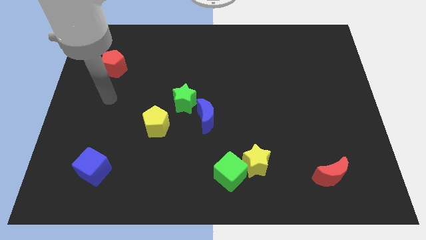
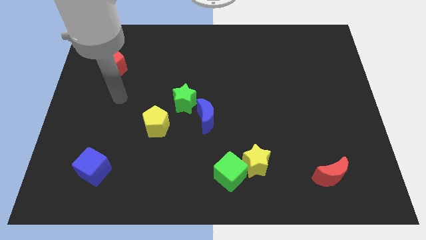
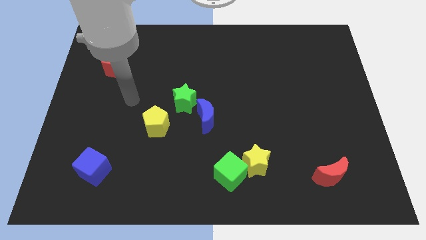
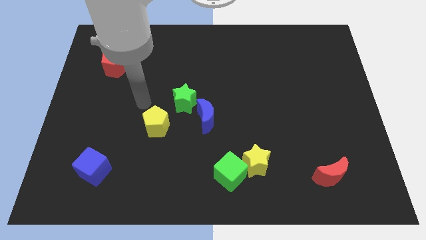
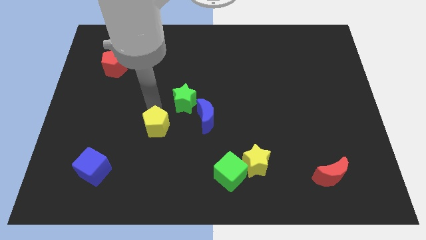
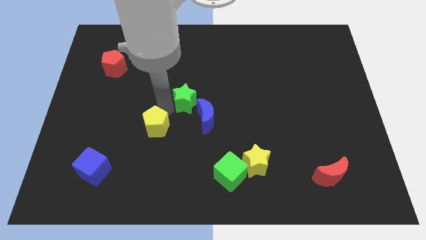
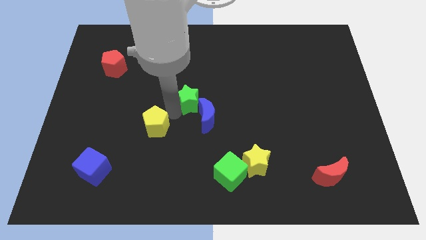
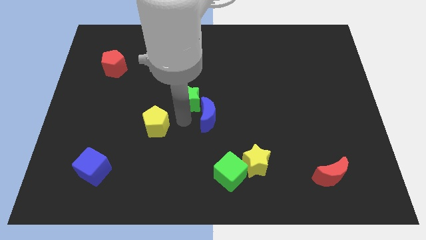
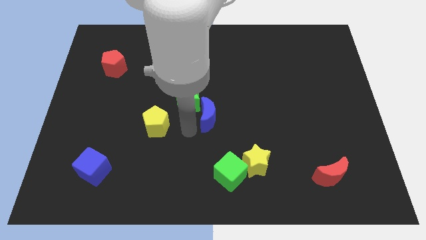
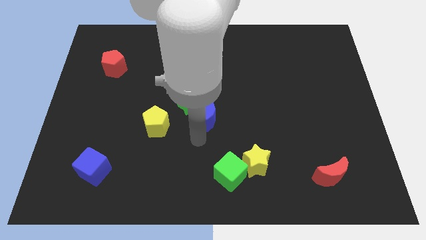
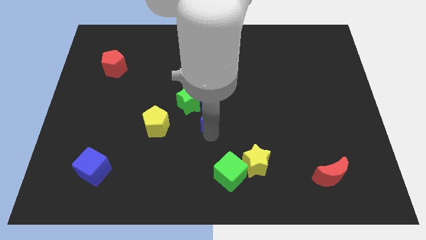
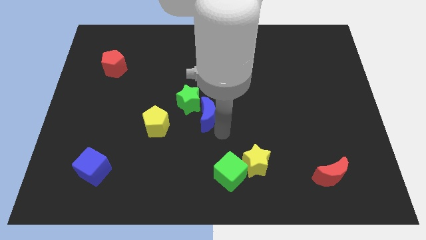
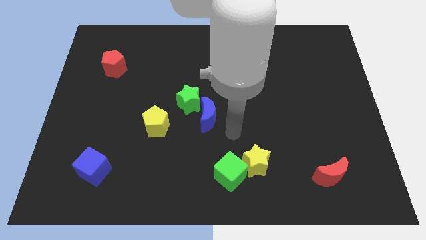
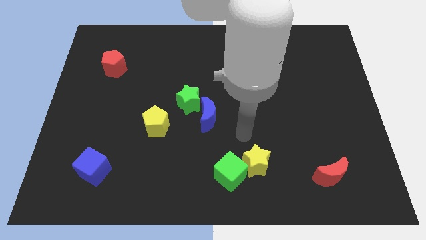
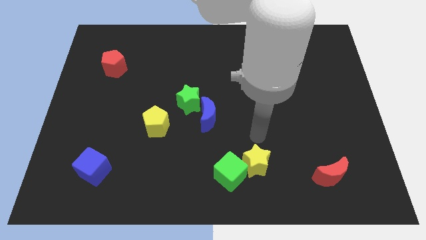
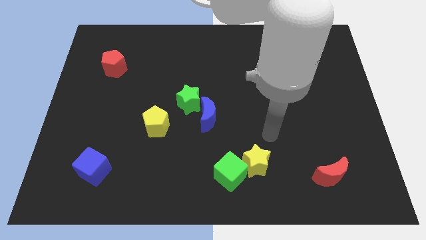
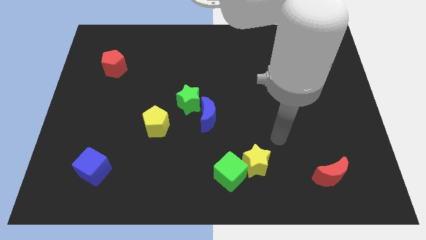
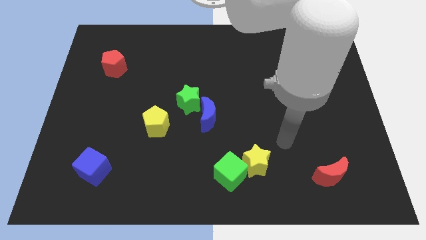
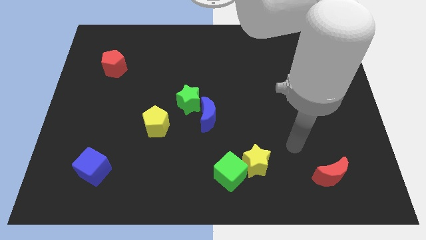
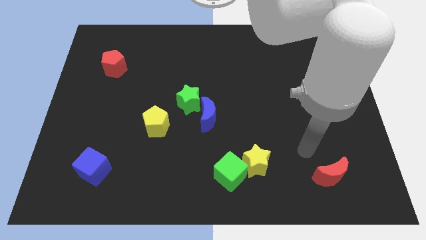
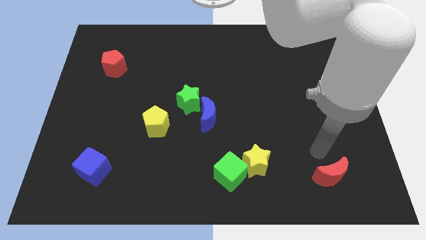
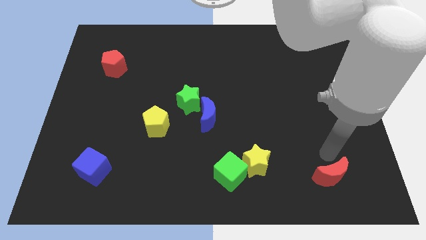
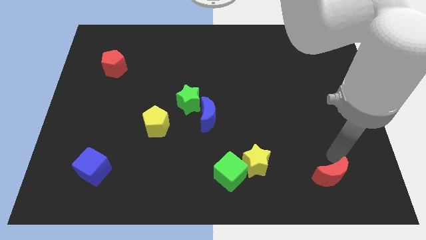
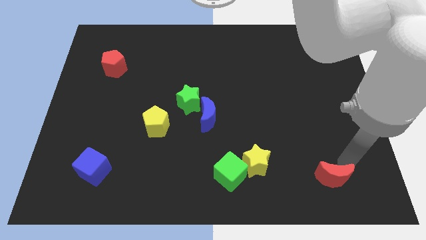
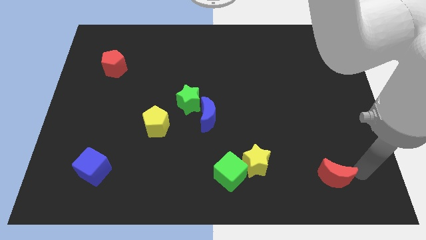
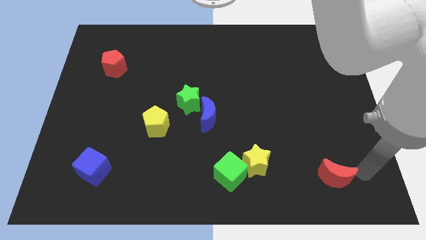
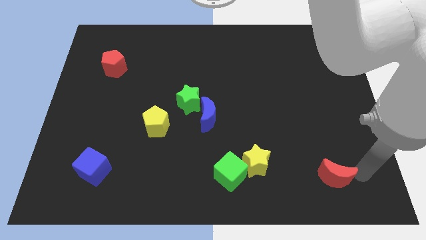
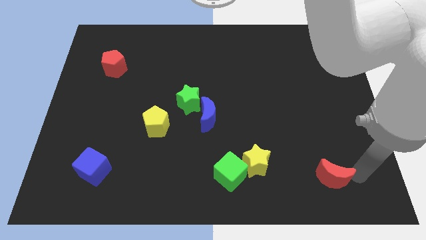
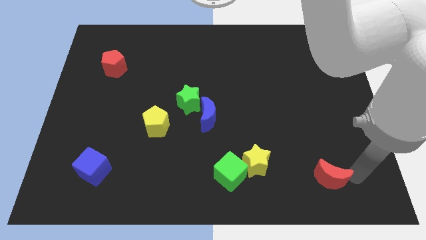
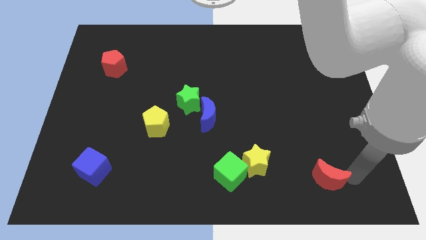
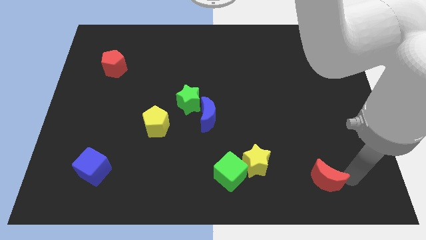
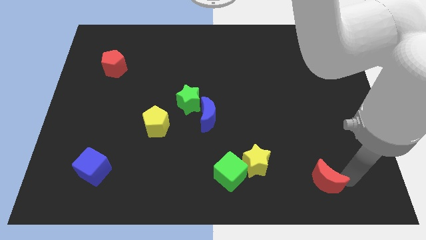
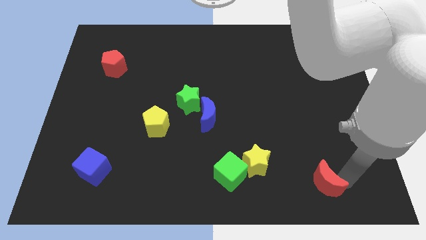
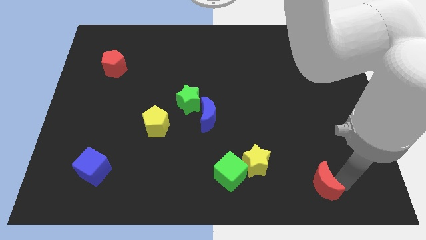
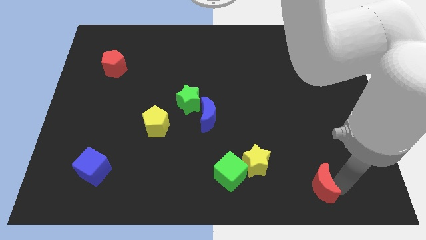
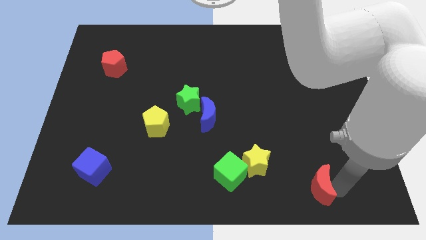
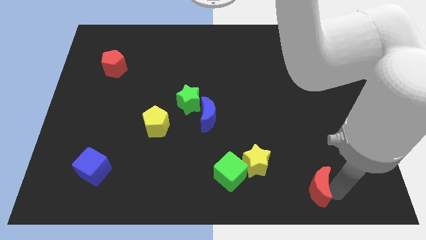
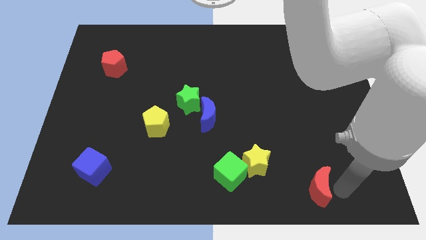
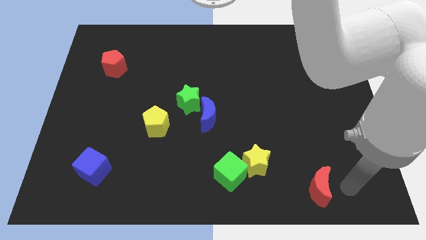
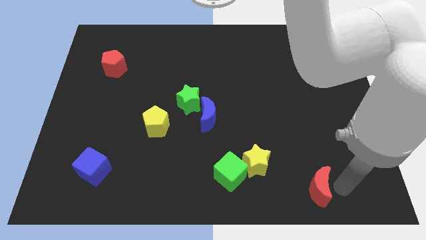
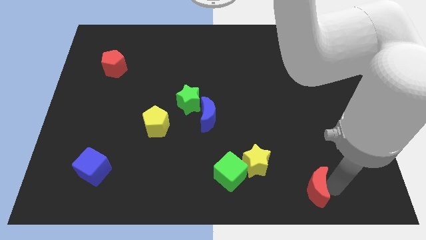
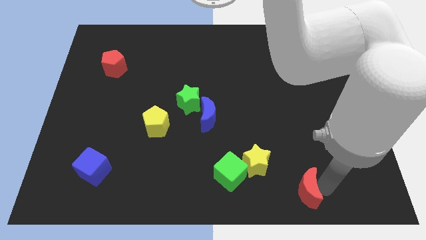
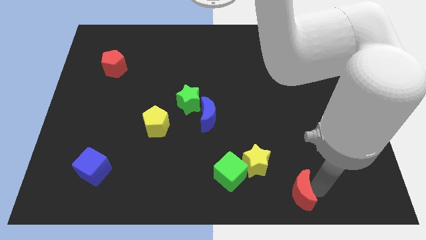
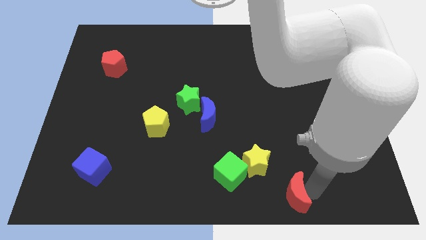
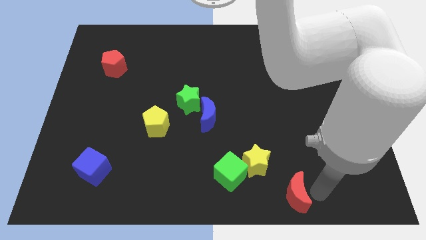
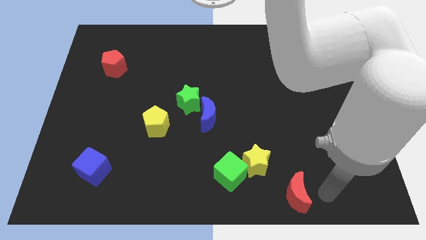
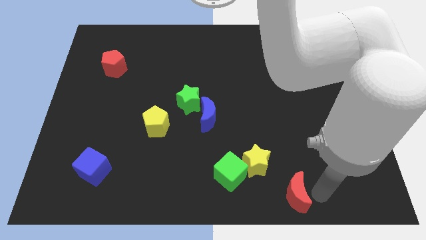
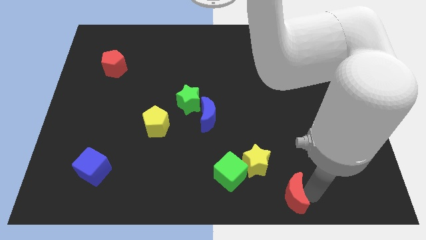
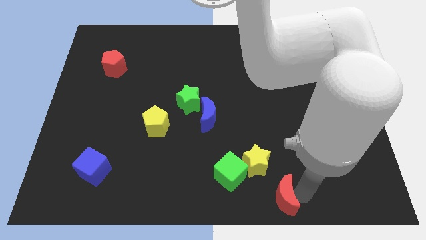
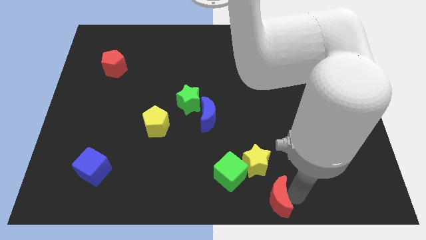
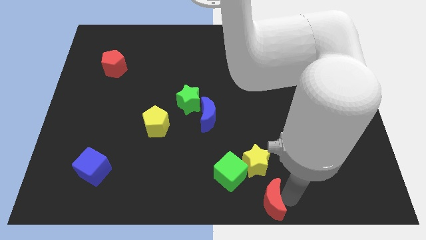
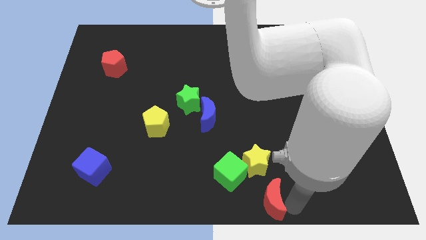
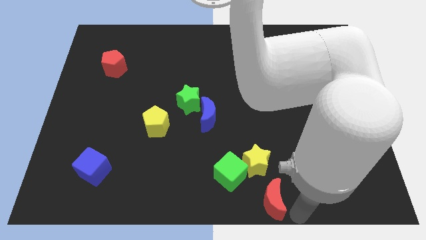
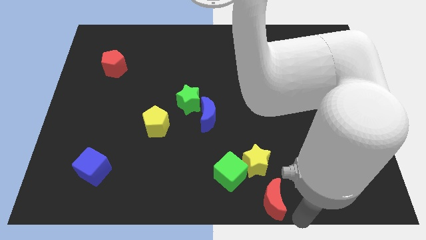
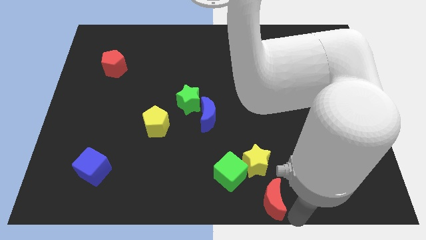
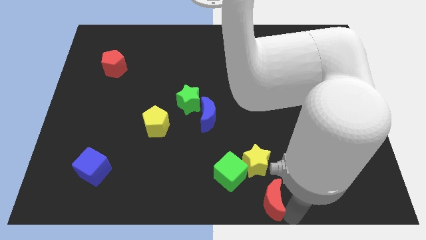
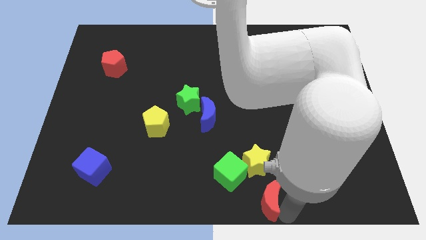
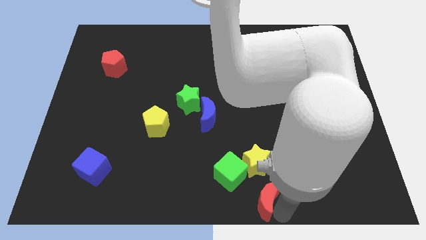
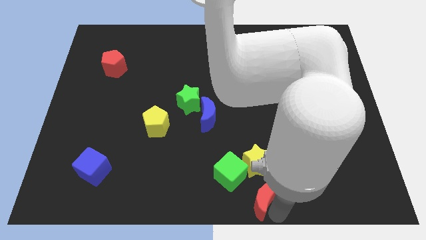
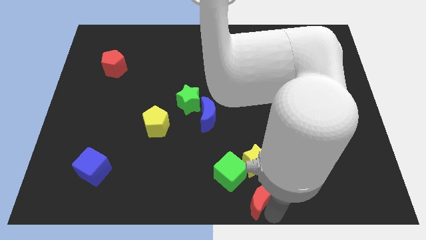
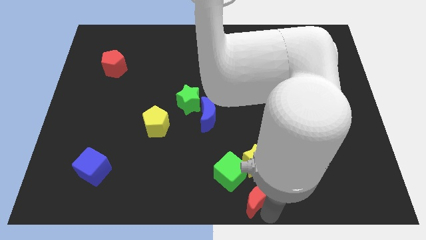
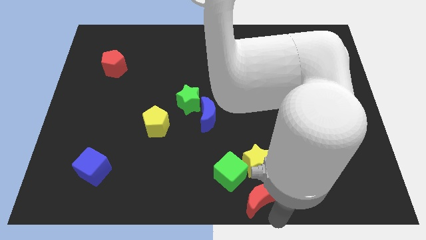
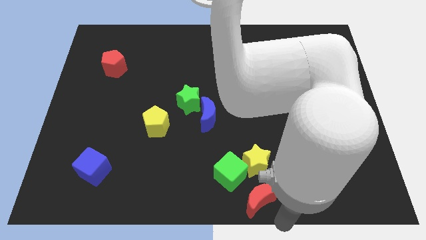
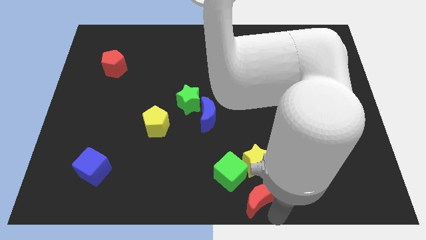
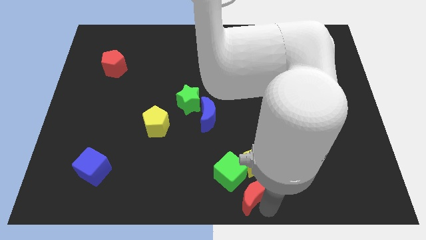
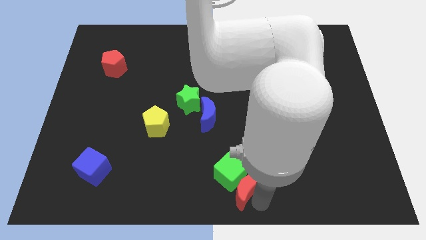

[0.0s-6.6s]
slide the red moon to the green cube
